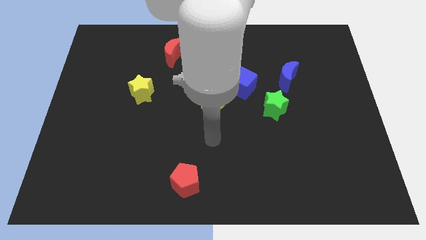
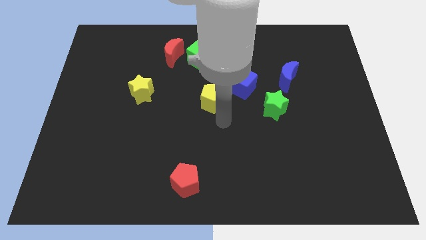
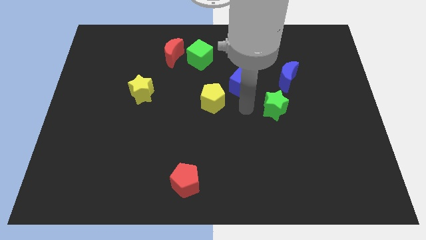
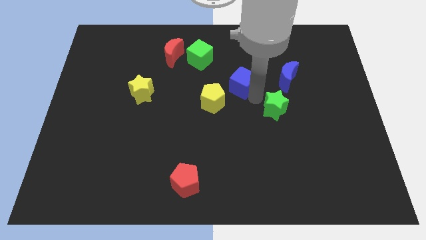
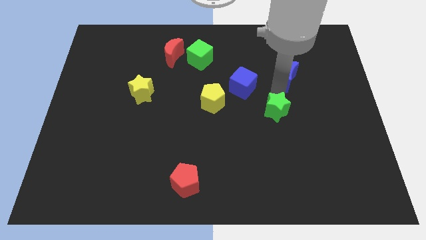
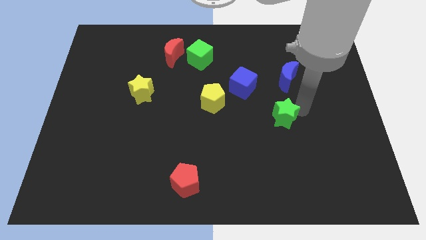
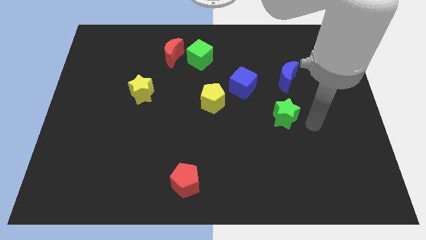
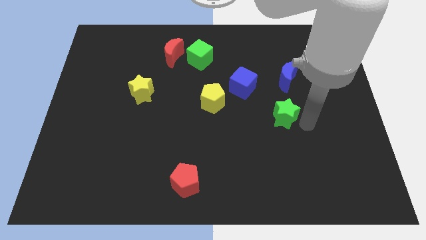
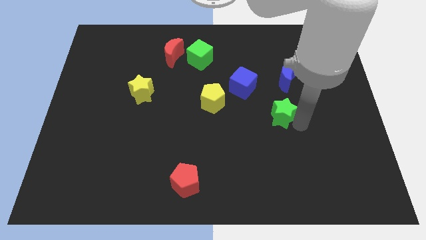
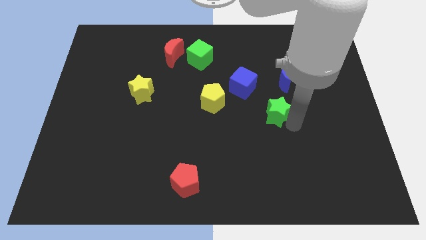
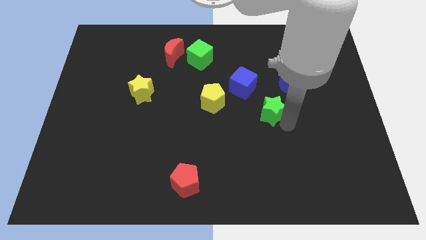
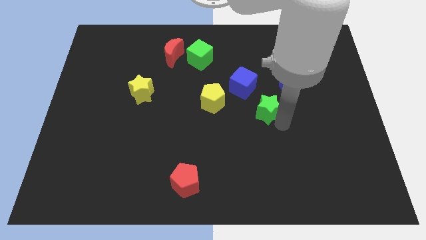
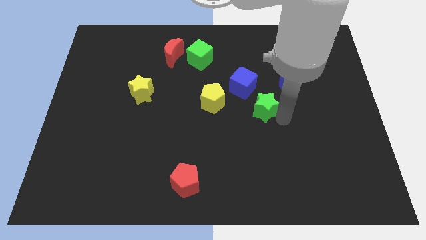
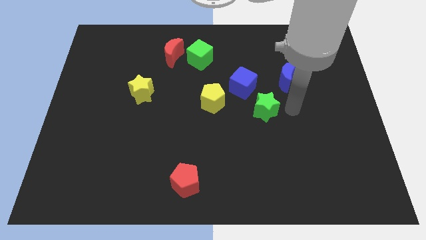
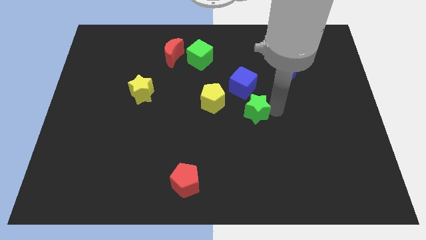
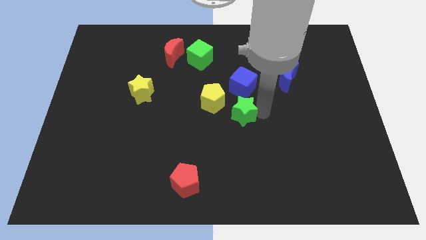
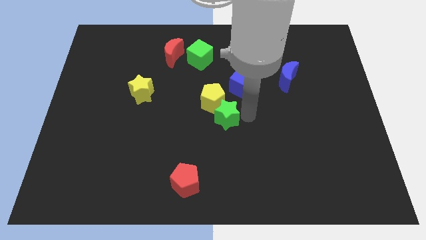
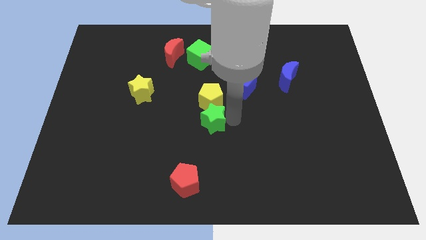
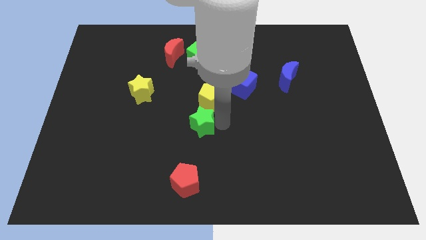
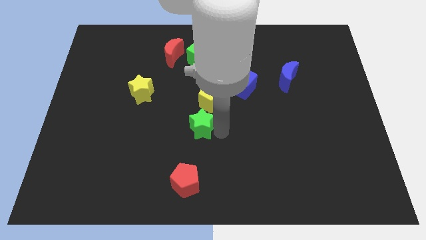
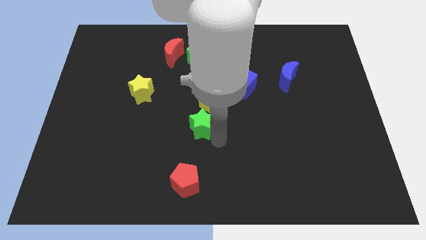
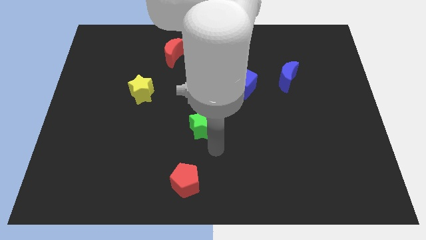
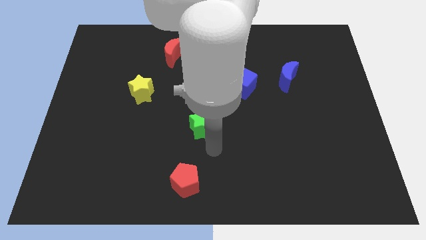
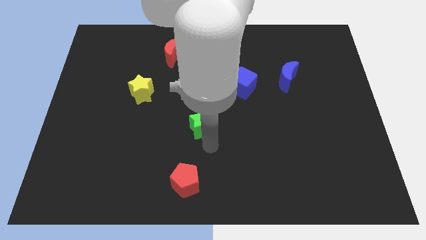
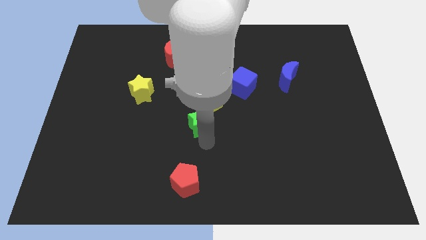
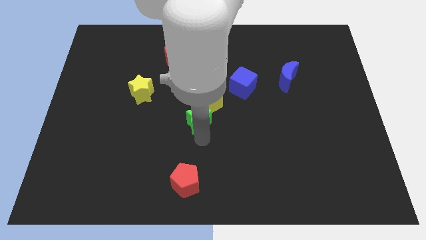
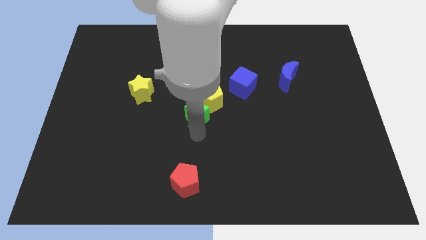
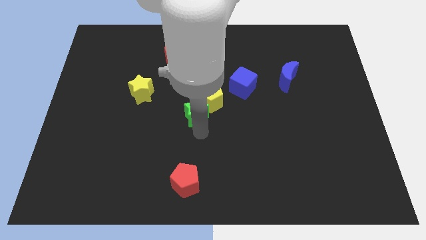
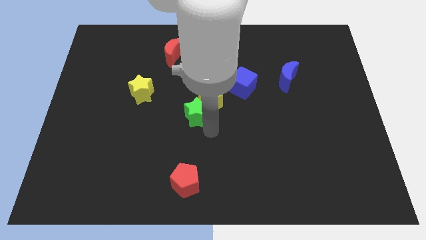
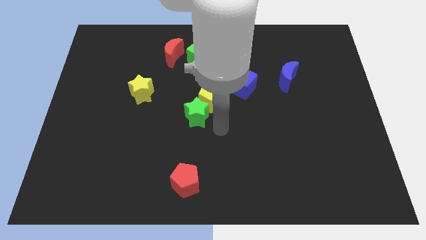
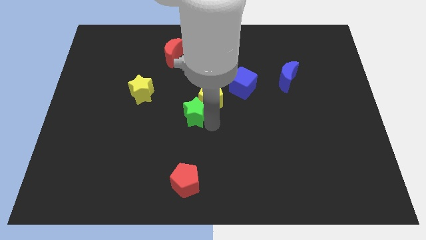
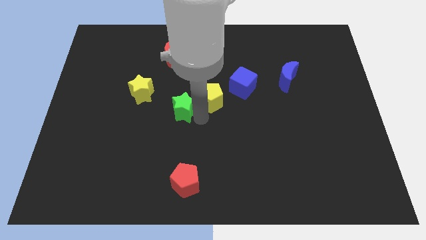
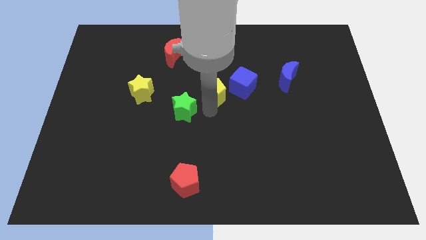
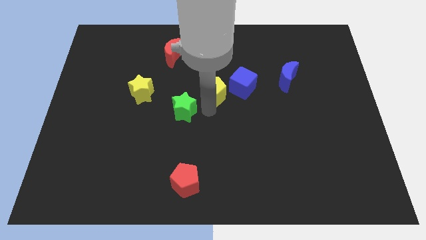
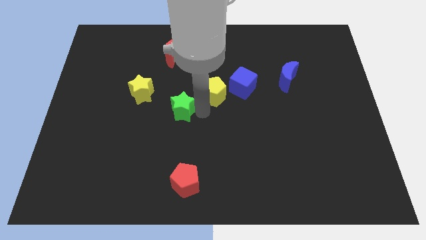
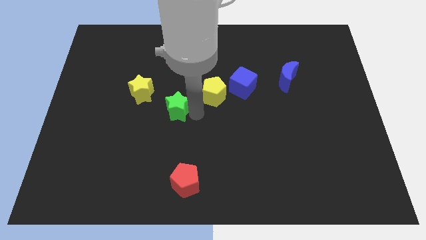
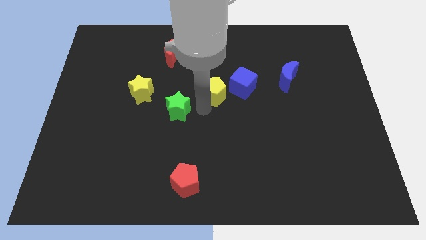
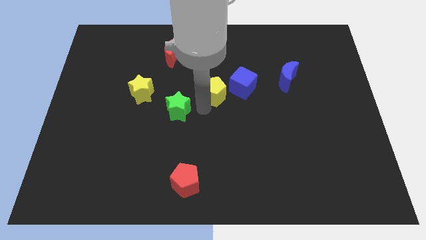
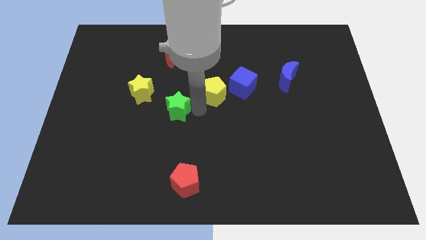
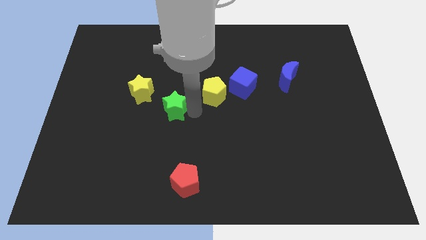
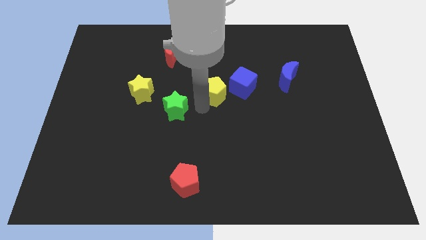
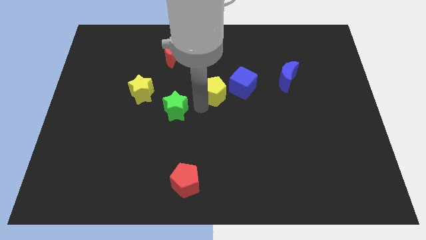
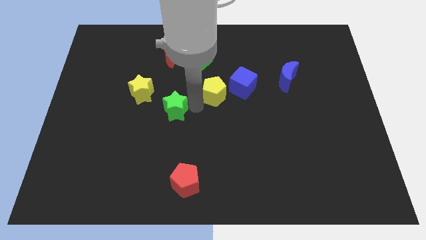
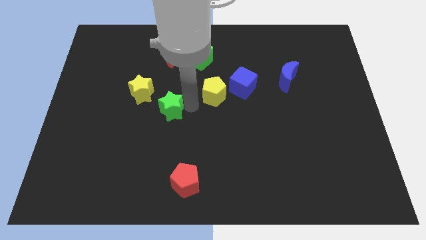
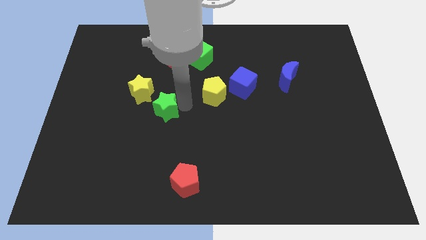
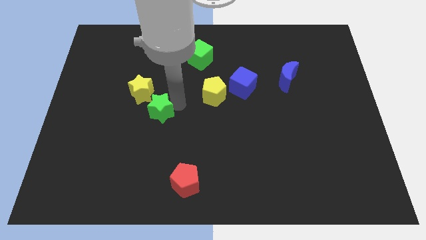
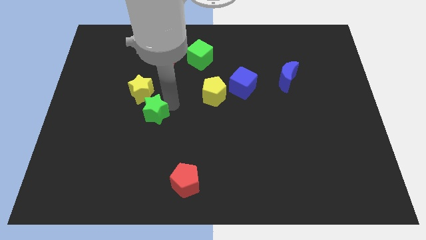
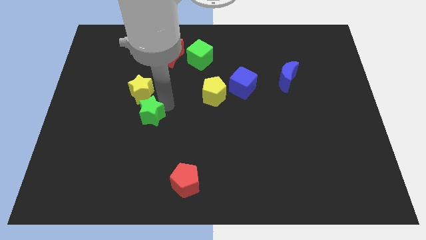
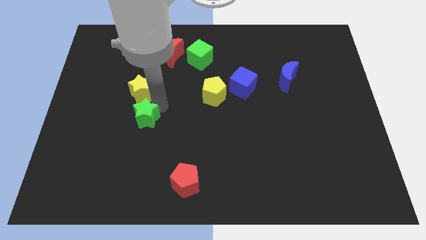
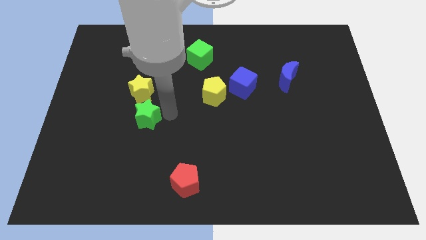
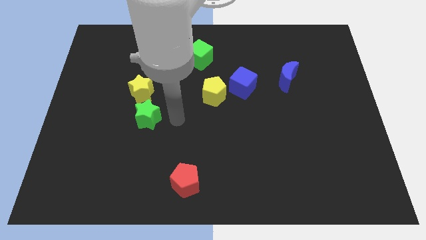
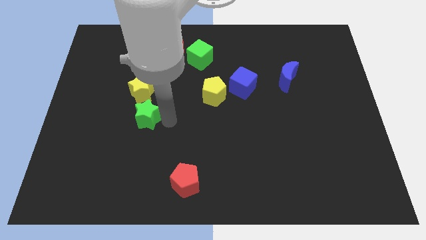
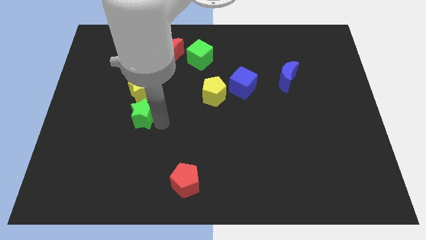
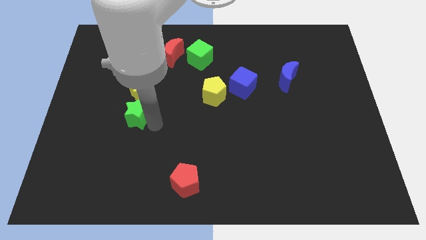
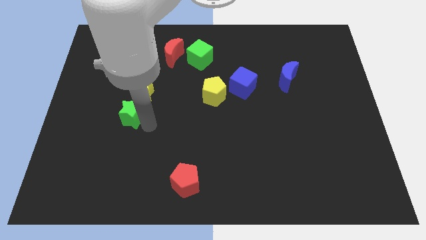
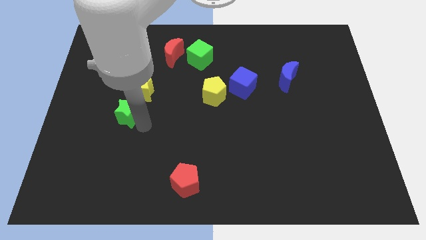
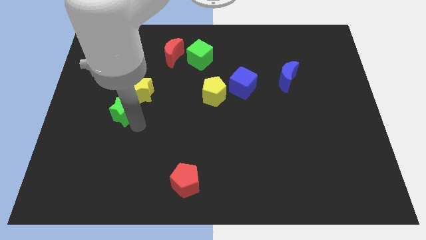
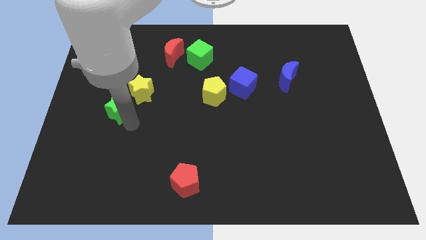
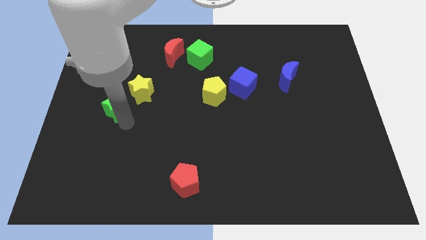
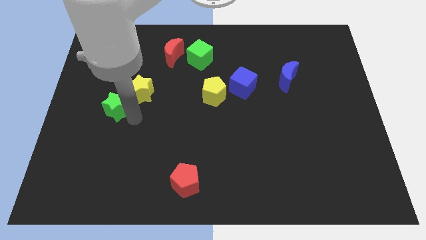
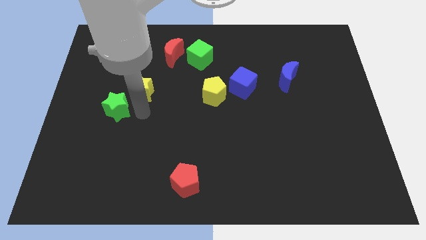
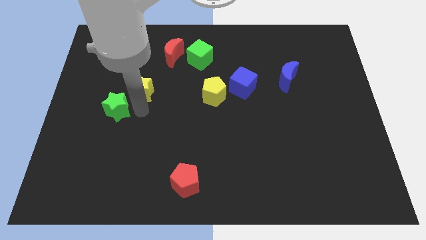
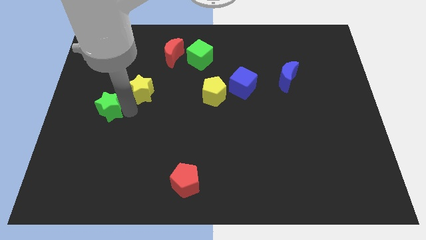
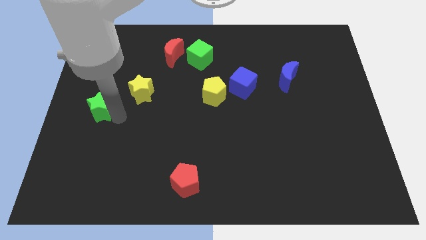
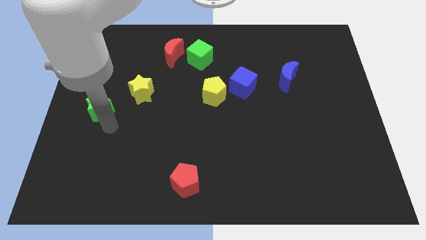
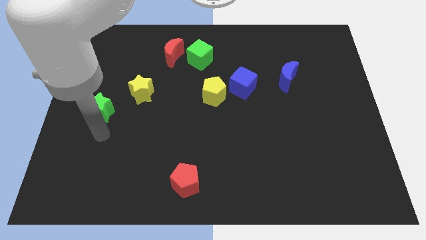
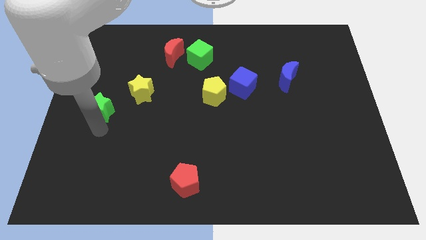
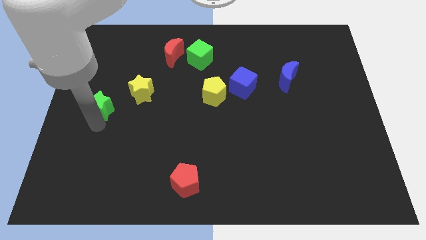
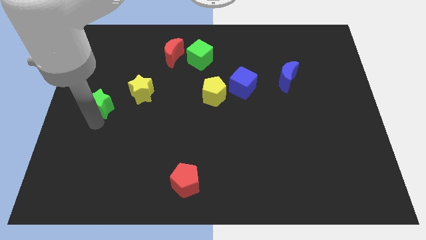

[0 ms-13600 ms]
put the green star just left of the yellow star

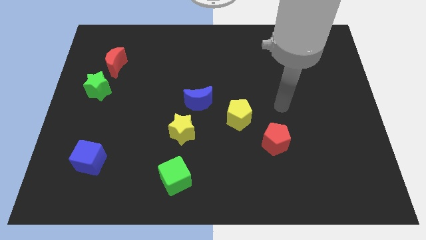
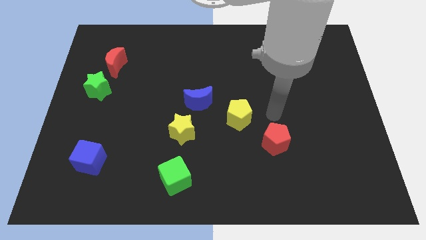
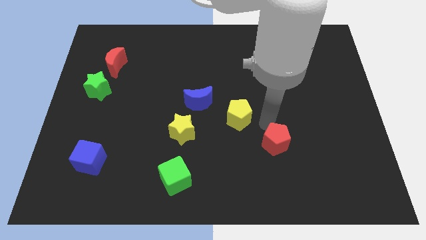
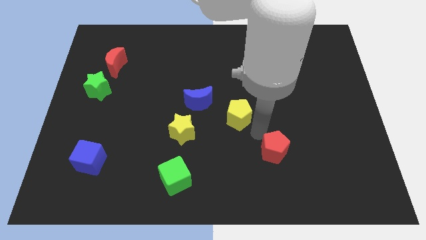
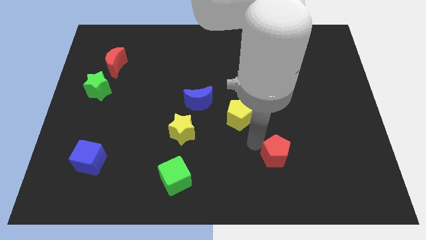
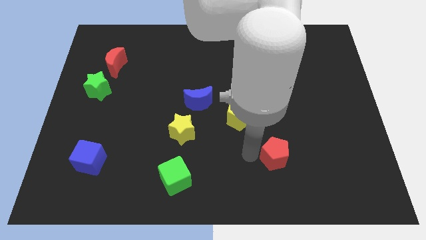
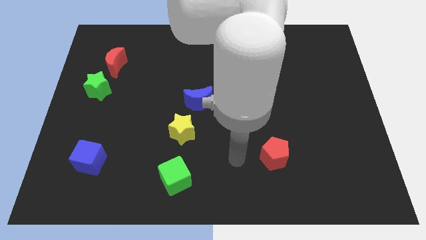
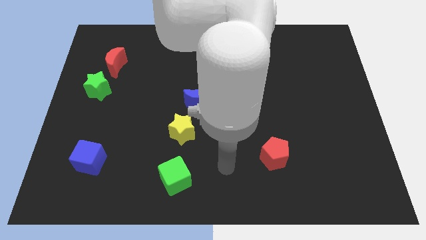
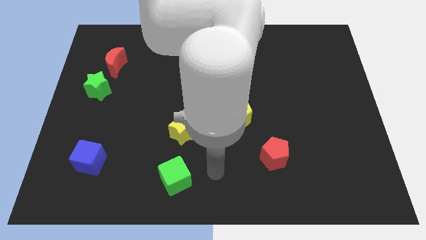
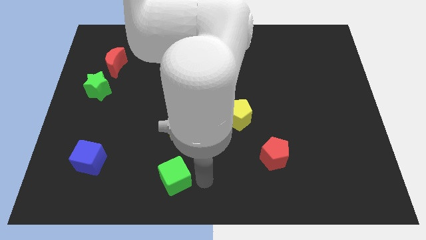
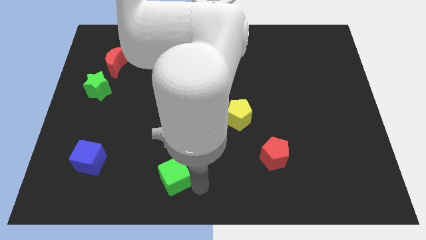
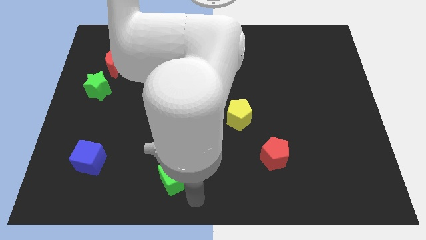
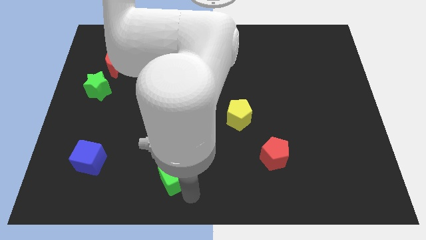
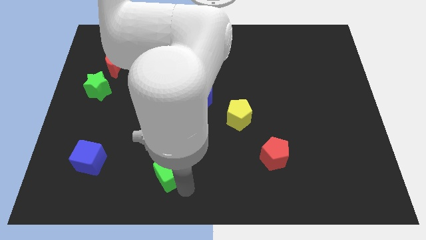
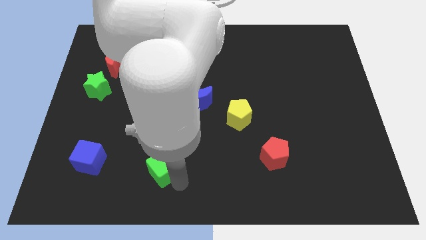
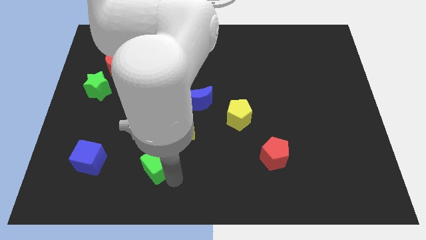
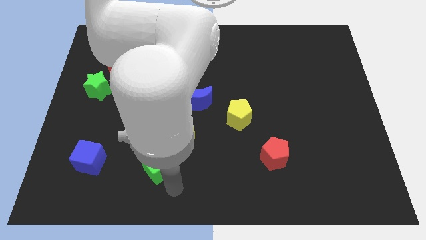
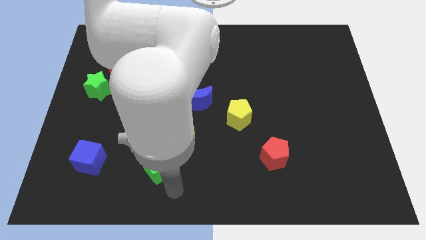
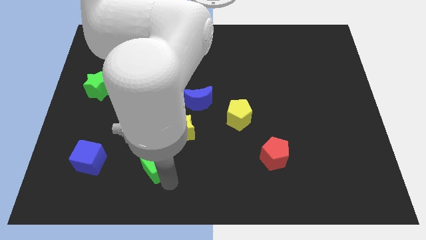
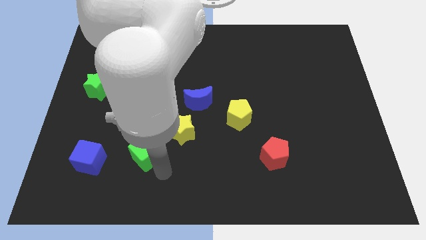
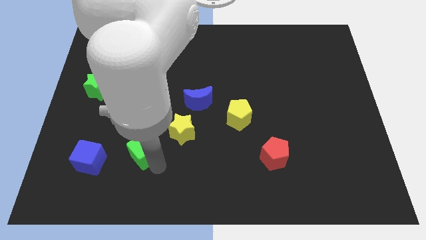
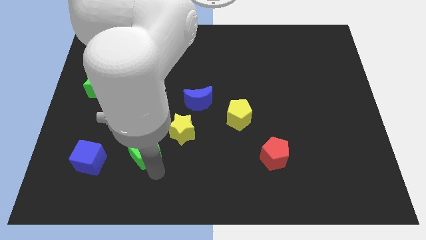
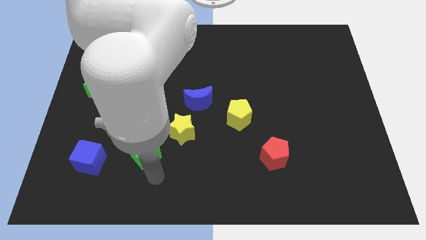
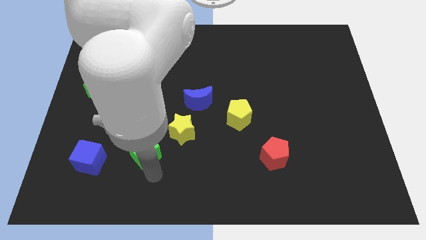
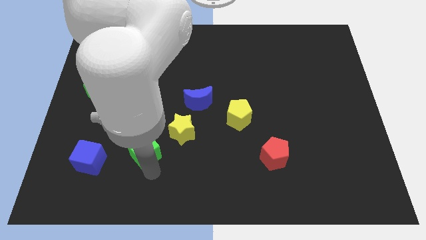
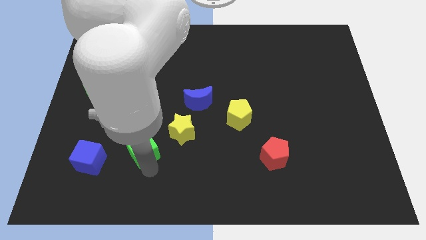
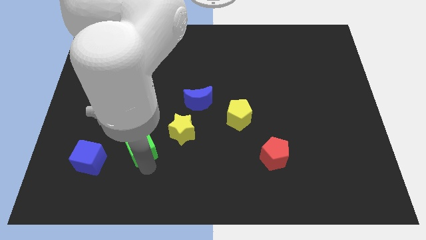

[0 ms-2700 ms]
push the green cube to the left side of the yellow star
